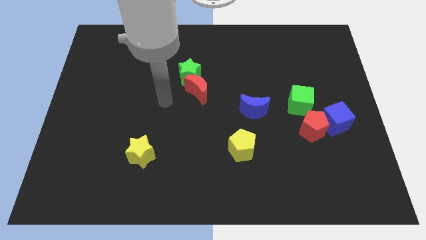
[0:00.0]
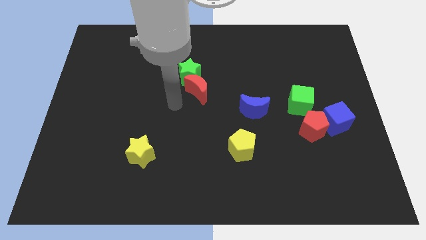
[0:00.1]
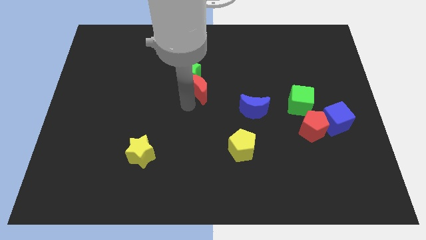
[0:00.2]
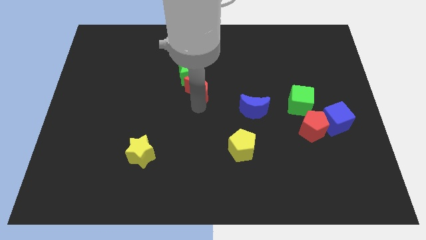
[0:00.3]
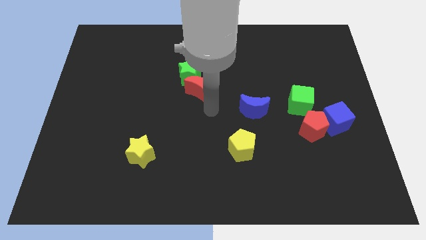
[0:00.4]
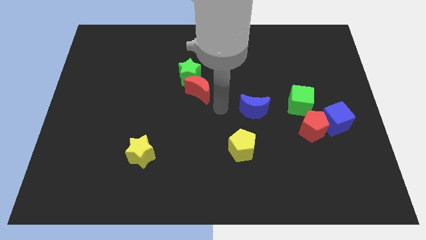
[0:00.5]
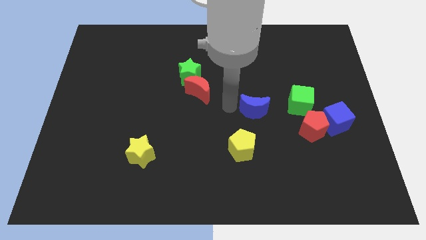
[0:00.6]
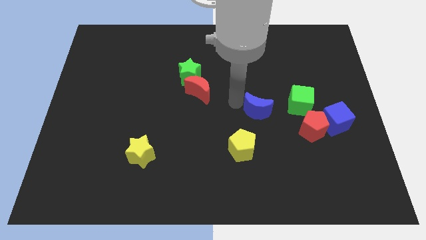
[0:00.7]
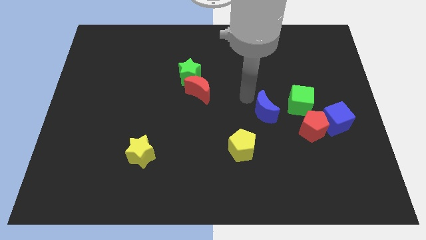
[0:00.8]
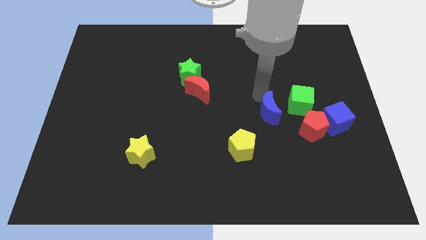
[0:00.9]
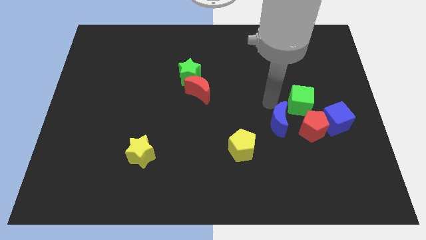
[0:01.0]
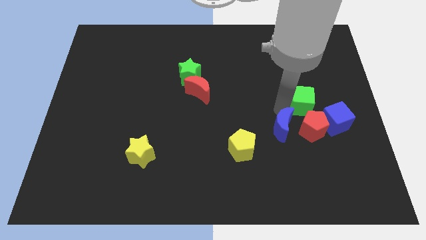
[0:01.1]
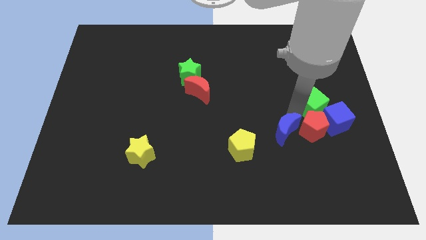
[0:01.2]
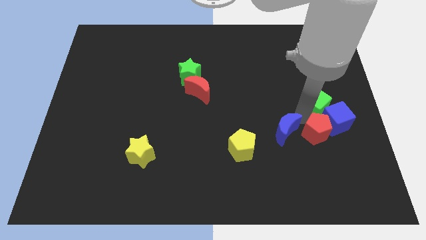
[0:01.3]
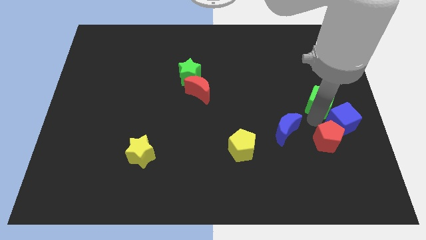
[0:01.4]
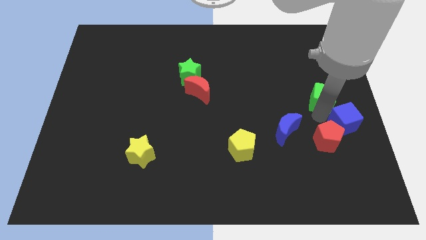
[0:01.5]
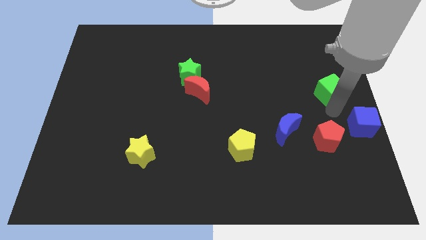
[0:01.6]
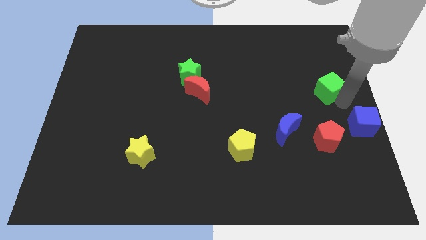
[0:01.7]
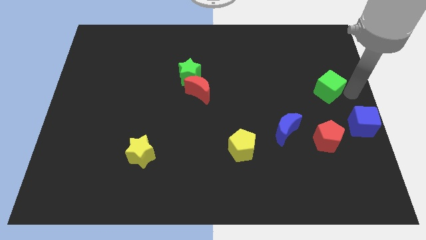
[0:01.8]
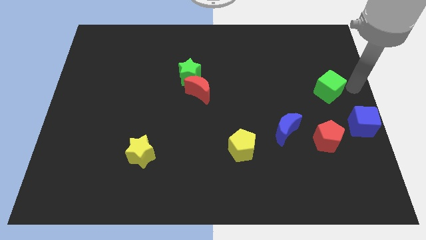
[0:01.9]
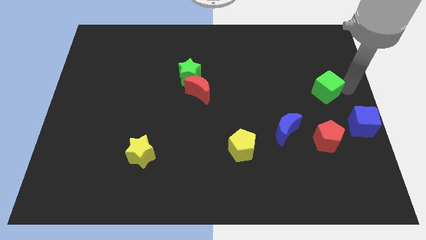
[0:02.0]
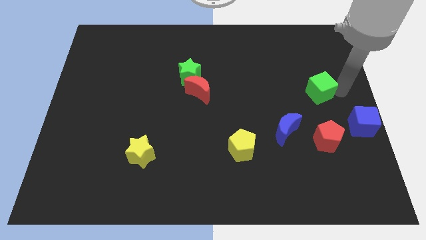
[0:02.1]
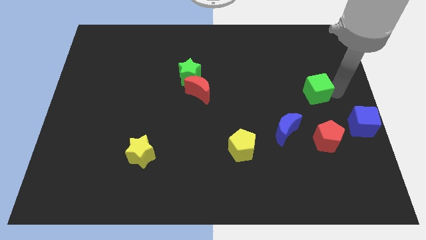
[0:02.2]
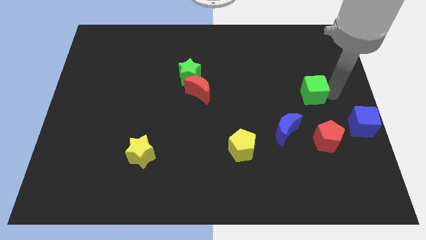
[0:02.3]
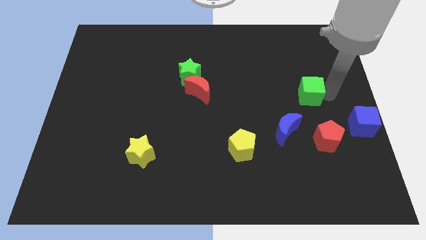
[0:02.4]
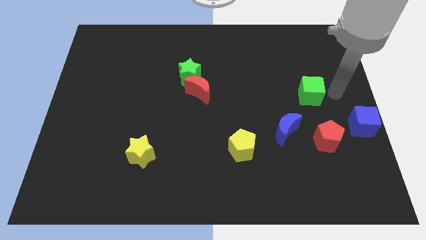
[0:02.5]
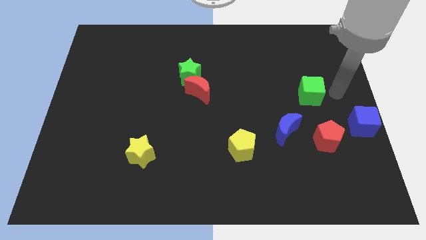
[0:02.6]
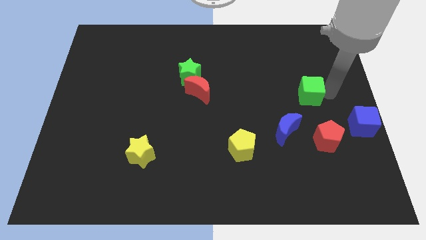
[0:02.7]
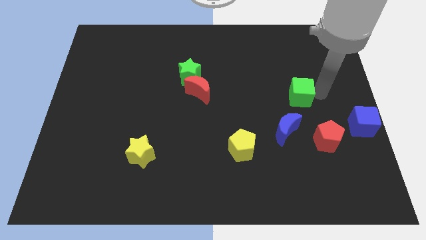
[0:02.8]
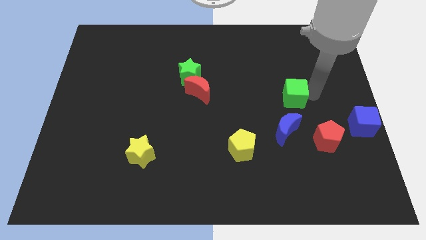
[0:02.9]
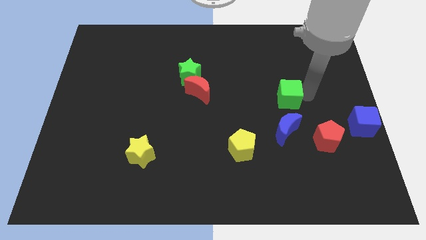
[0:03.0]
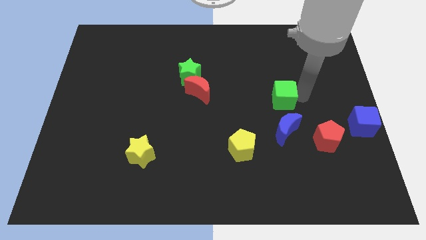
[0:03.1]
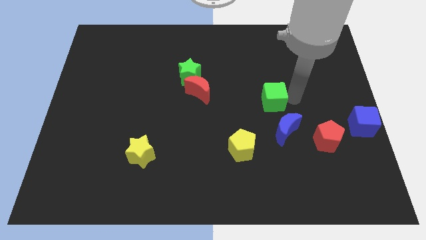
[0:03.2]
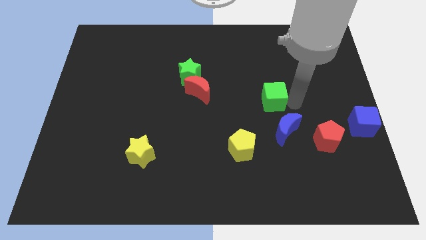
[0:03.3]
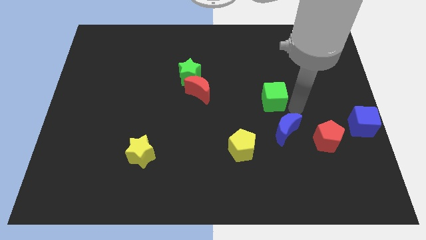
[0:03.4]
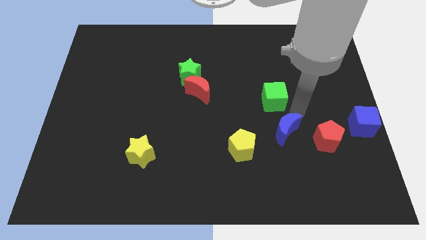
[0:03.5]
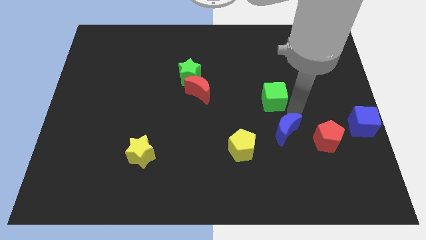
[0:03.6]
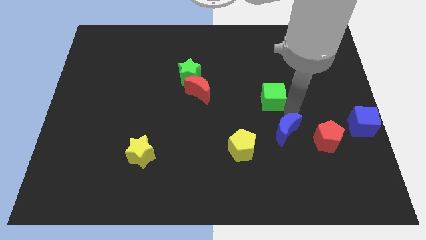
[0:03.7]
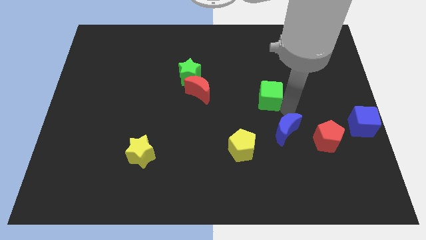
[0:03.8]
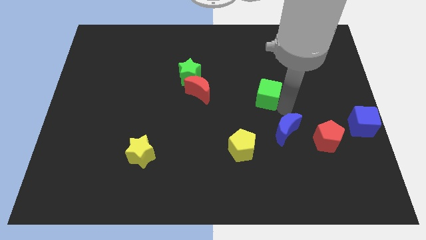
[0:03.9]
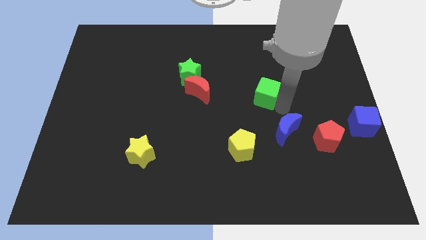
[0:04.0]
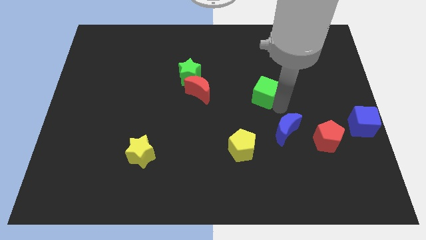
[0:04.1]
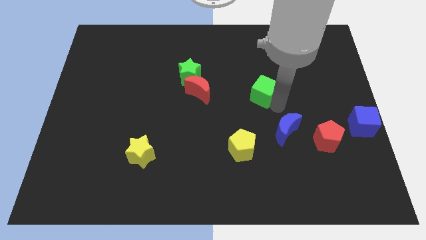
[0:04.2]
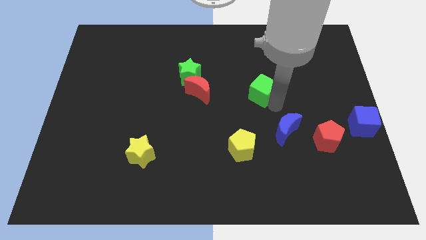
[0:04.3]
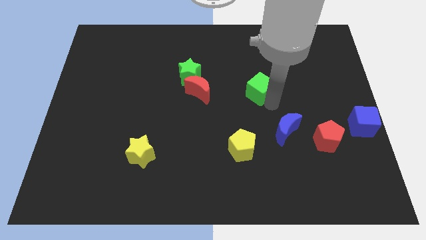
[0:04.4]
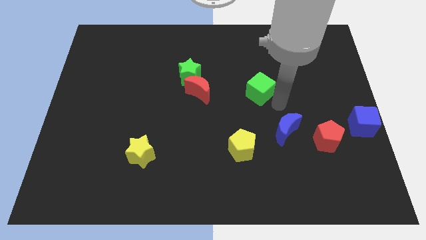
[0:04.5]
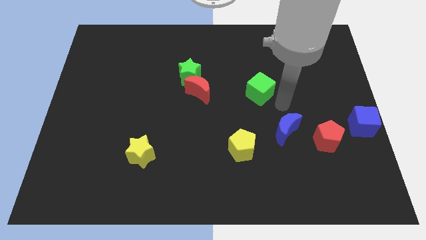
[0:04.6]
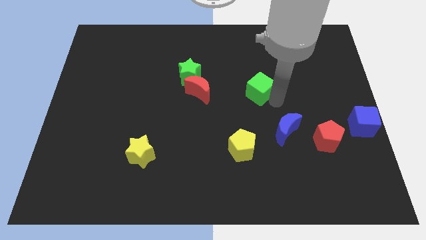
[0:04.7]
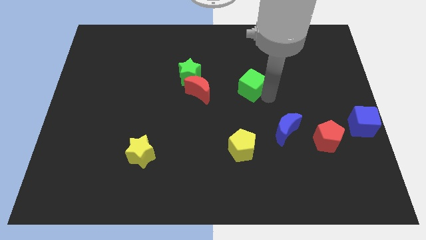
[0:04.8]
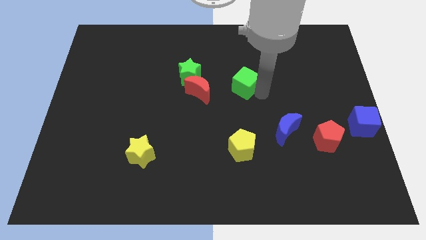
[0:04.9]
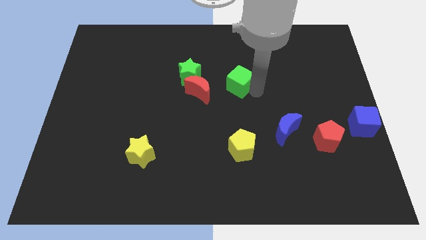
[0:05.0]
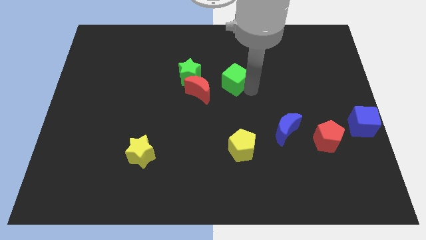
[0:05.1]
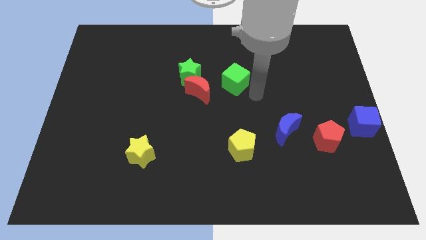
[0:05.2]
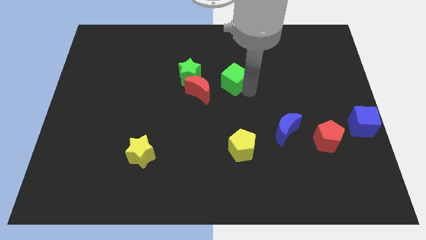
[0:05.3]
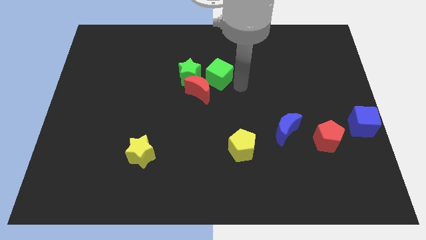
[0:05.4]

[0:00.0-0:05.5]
slide the green cube to the top side of the red moon

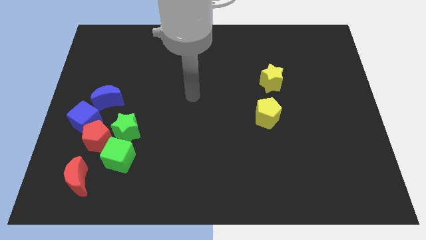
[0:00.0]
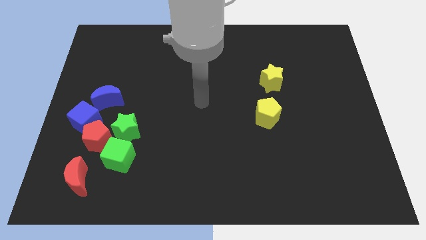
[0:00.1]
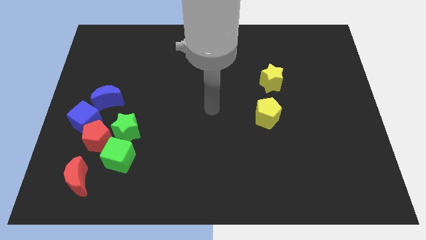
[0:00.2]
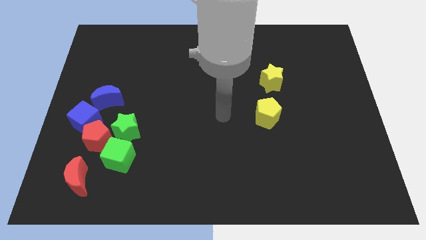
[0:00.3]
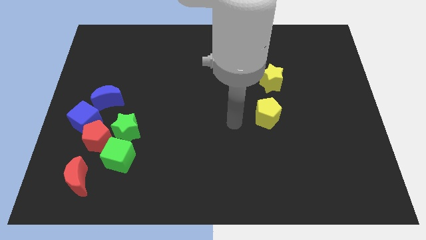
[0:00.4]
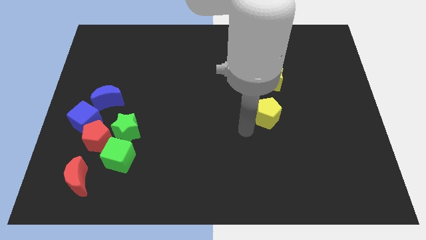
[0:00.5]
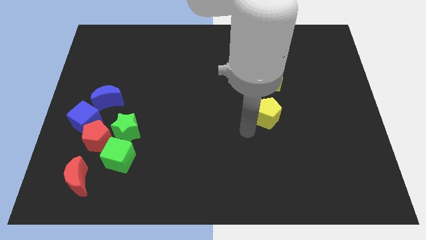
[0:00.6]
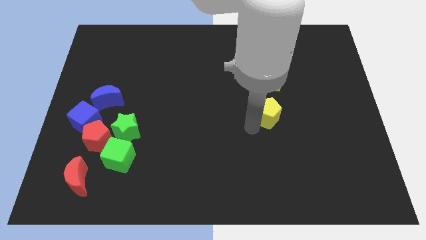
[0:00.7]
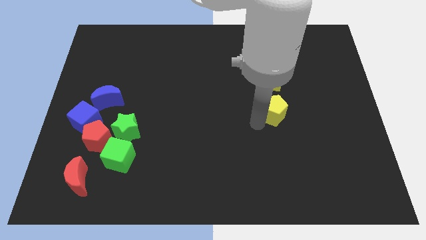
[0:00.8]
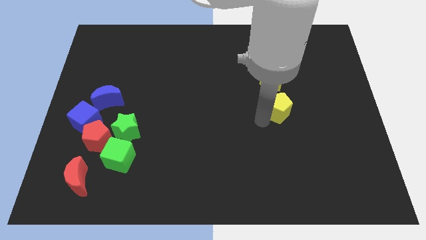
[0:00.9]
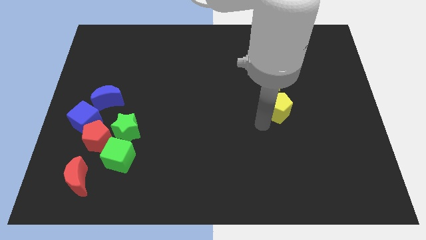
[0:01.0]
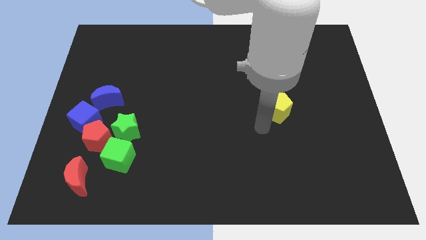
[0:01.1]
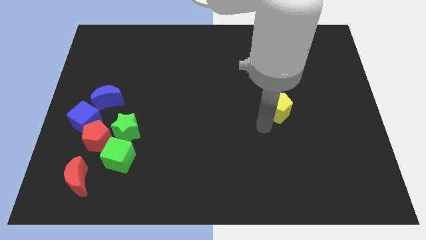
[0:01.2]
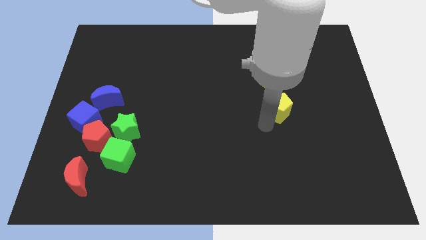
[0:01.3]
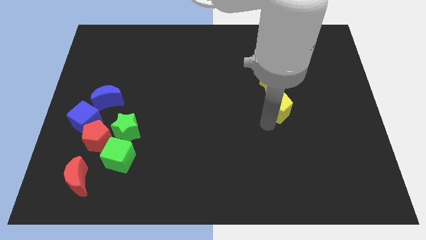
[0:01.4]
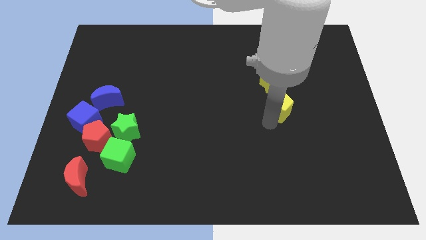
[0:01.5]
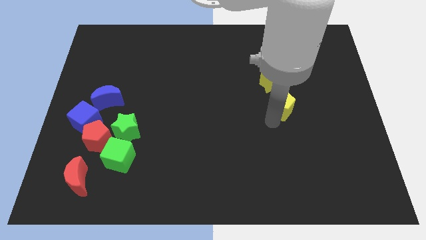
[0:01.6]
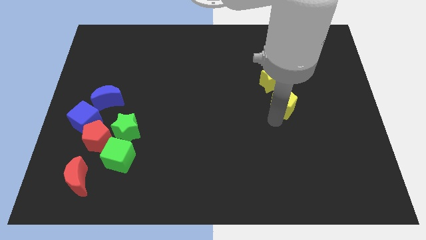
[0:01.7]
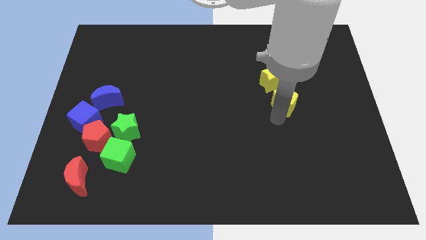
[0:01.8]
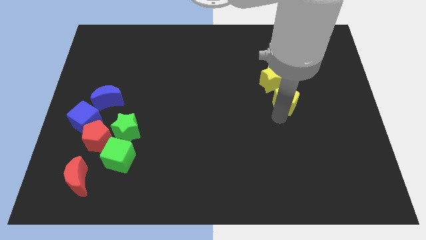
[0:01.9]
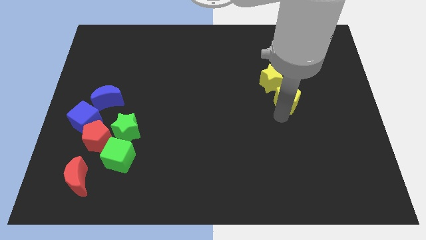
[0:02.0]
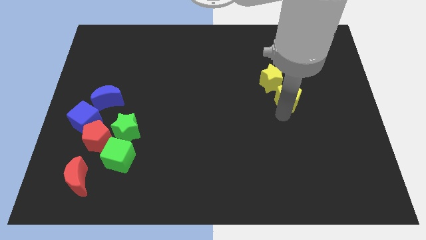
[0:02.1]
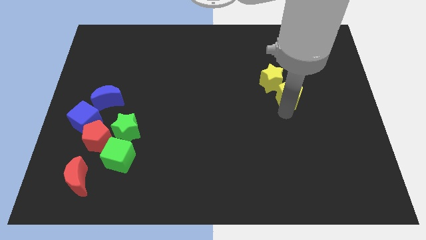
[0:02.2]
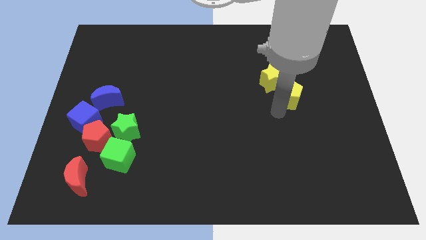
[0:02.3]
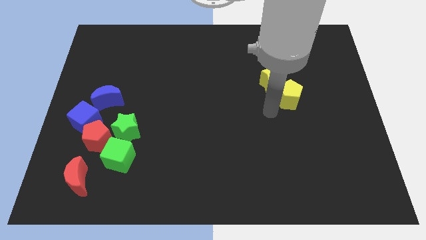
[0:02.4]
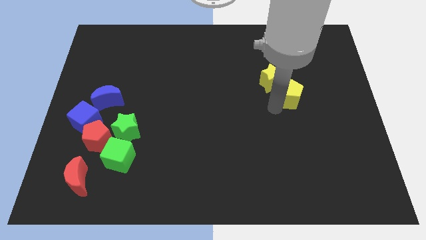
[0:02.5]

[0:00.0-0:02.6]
slide the yellow pentagon right of the yellow star
